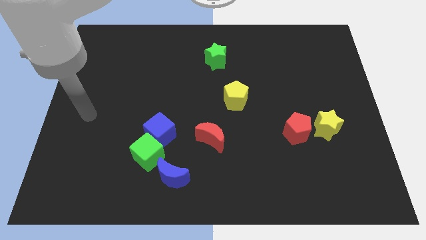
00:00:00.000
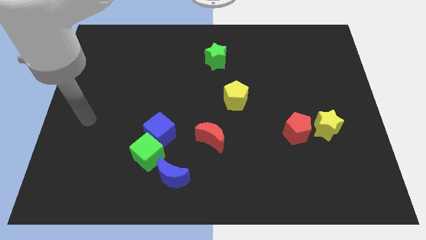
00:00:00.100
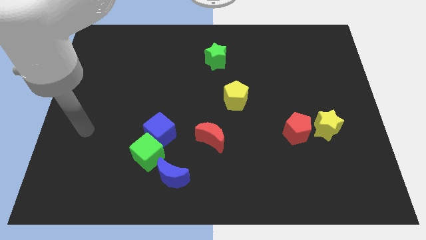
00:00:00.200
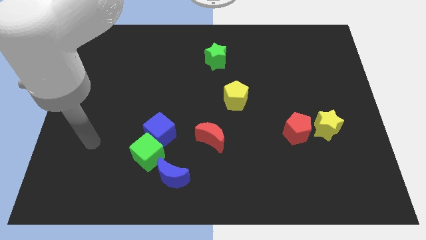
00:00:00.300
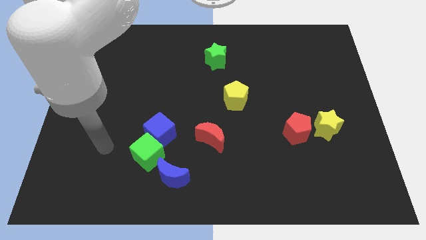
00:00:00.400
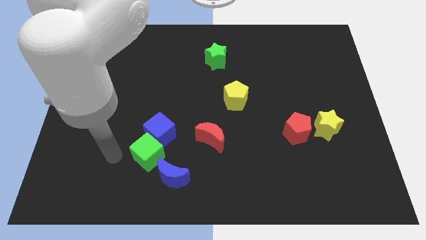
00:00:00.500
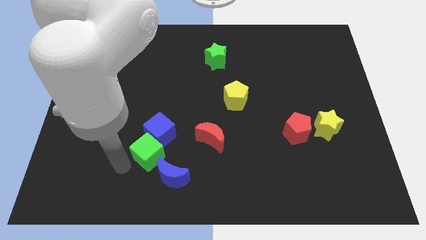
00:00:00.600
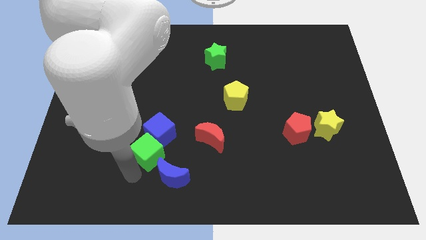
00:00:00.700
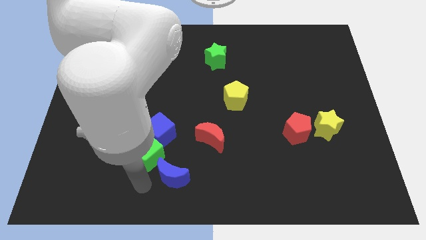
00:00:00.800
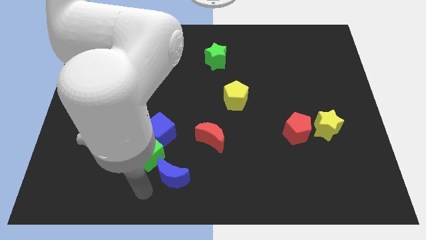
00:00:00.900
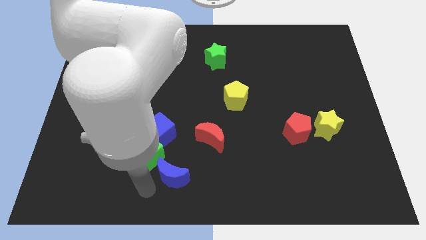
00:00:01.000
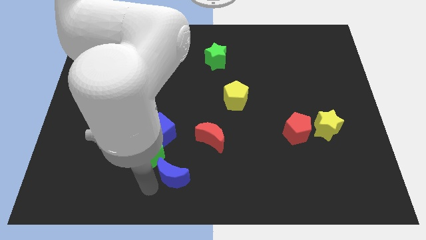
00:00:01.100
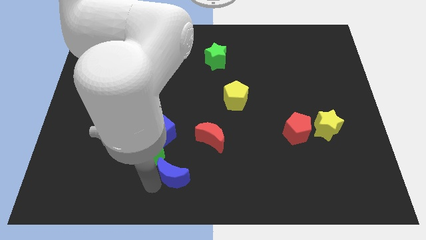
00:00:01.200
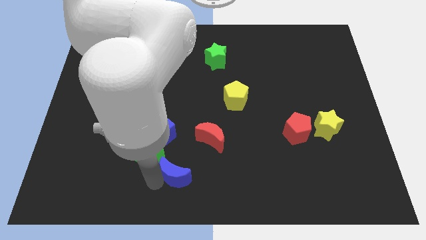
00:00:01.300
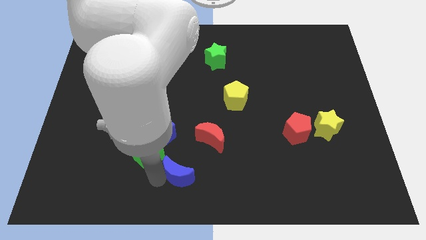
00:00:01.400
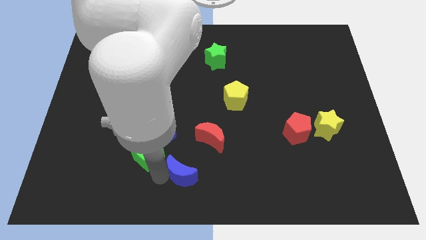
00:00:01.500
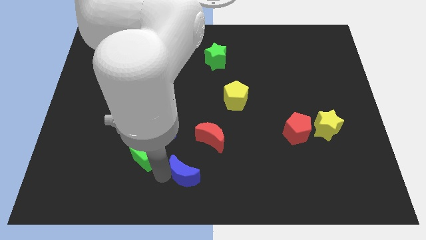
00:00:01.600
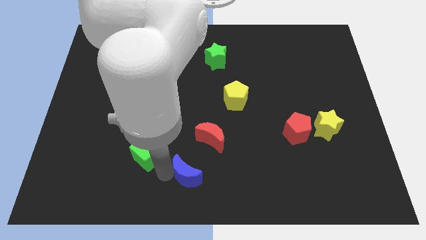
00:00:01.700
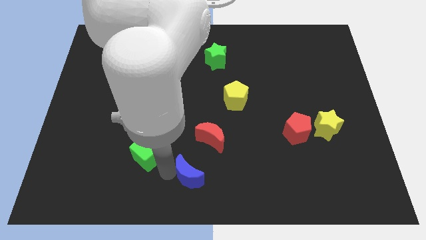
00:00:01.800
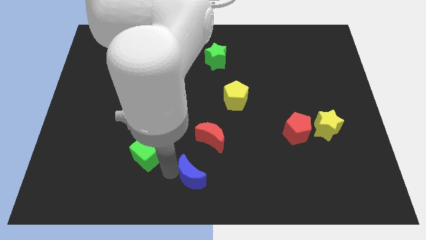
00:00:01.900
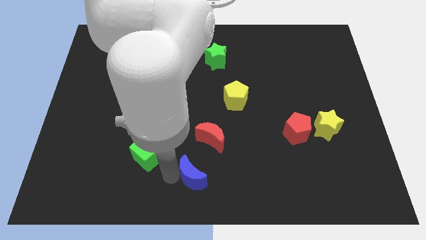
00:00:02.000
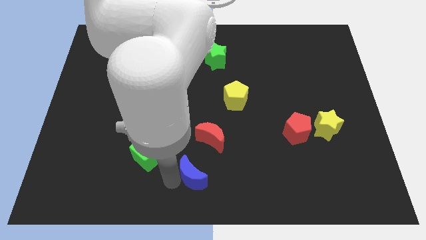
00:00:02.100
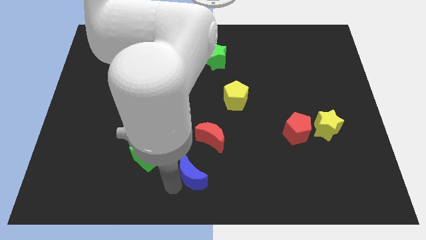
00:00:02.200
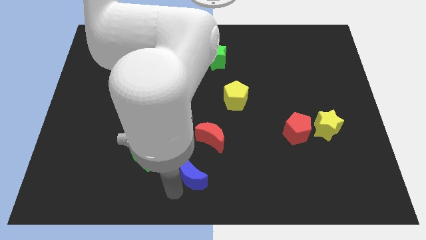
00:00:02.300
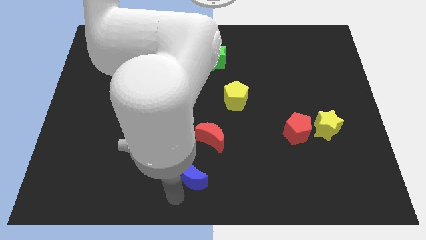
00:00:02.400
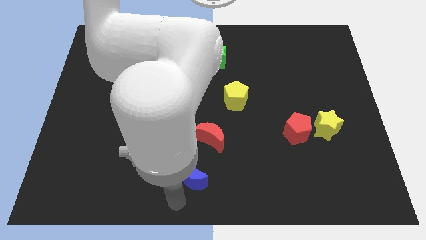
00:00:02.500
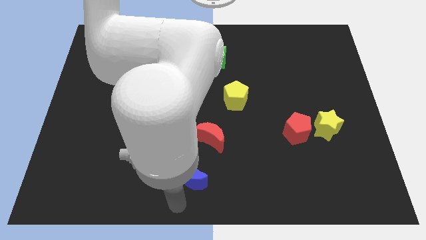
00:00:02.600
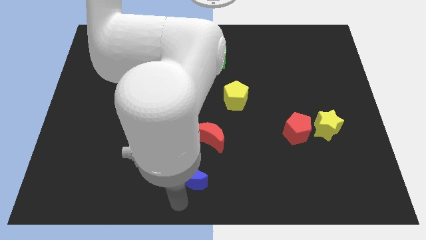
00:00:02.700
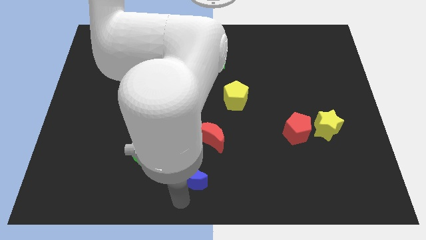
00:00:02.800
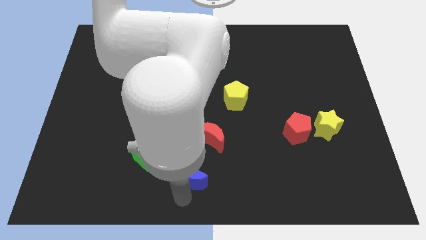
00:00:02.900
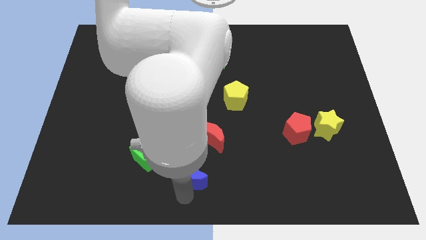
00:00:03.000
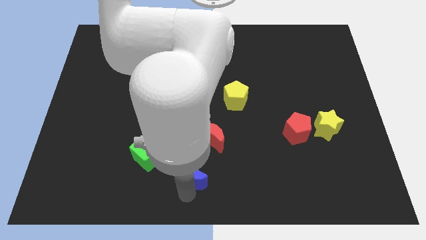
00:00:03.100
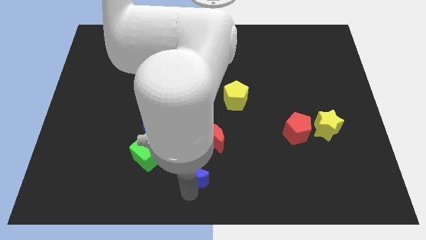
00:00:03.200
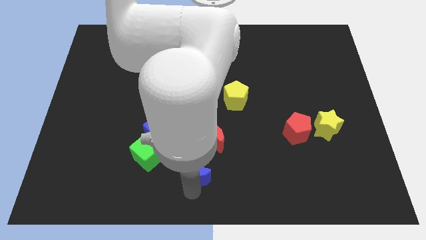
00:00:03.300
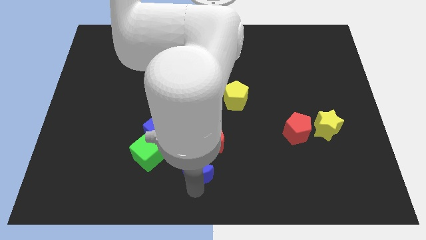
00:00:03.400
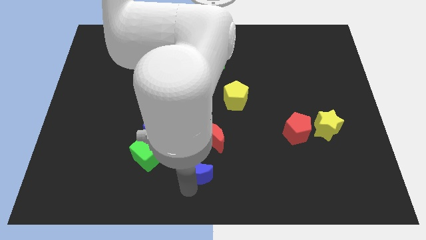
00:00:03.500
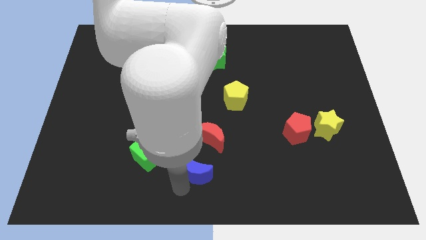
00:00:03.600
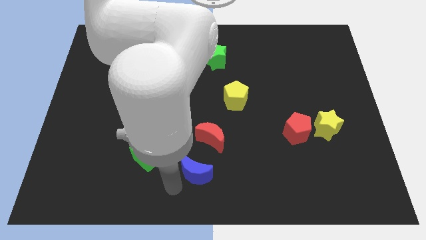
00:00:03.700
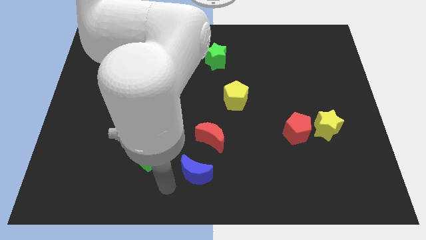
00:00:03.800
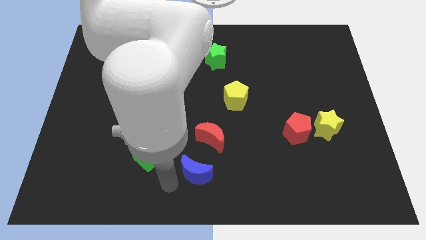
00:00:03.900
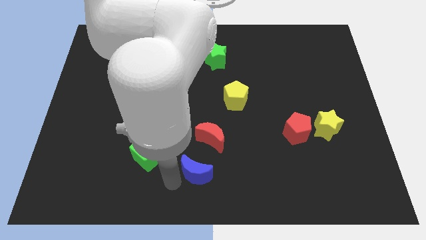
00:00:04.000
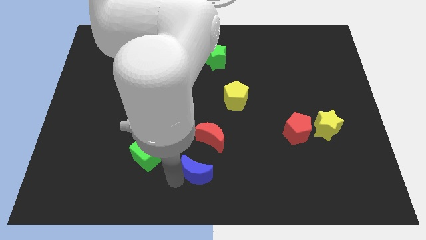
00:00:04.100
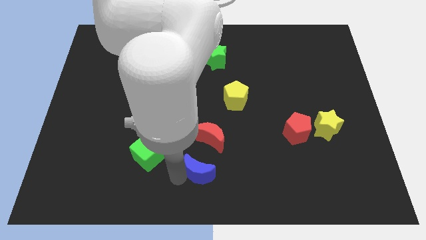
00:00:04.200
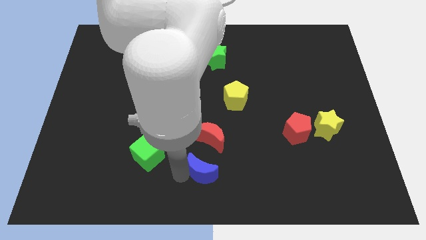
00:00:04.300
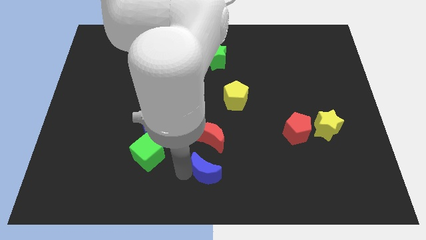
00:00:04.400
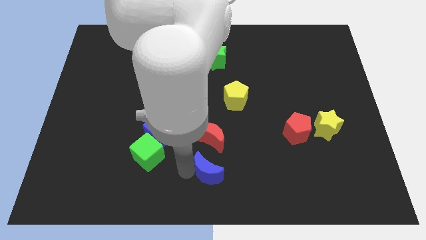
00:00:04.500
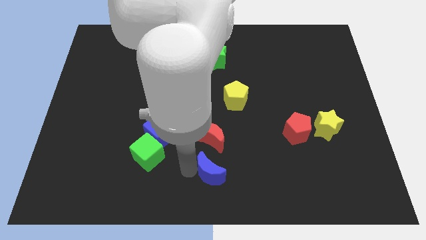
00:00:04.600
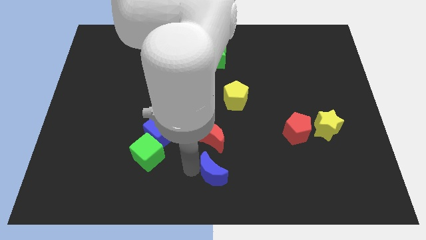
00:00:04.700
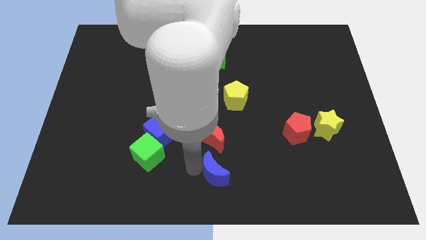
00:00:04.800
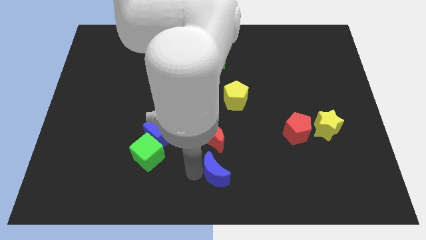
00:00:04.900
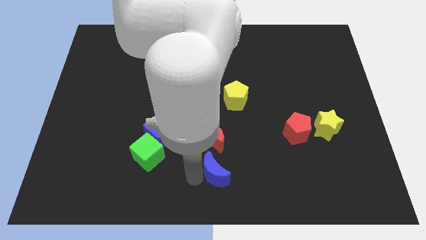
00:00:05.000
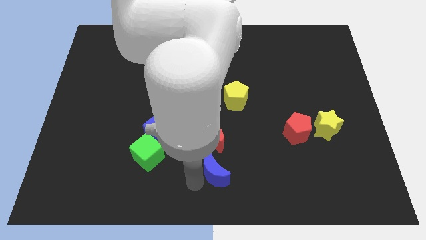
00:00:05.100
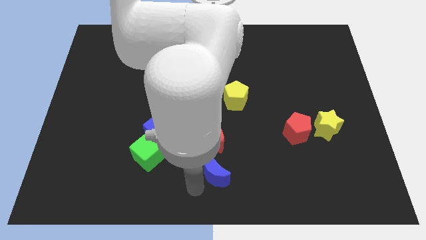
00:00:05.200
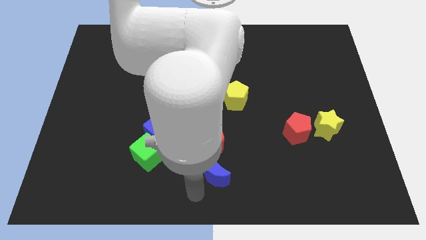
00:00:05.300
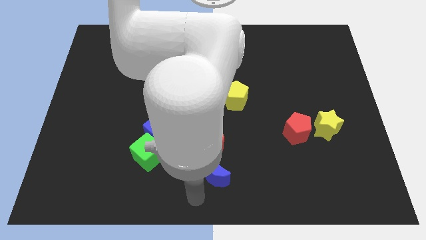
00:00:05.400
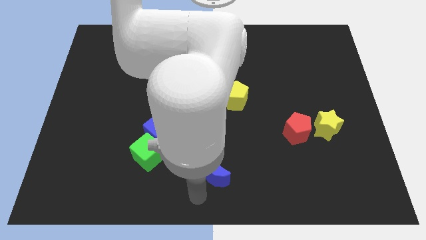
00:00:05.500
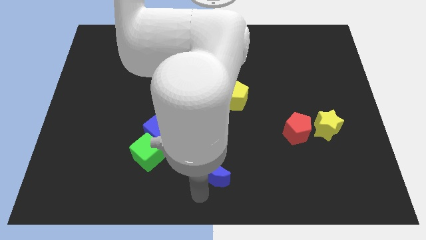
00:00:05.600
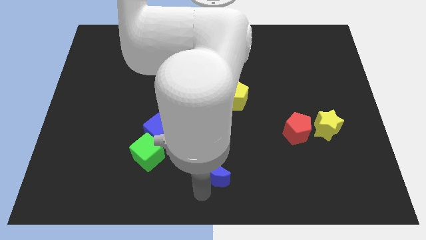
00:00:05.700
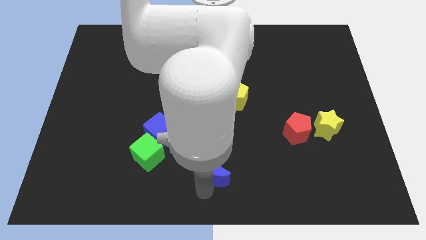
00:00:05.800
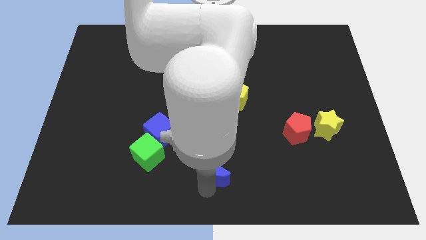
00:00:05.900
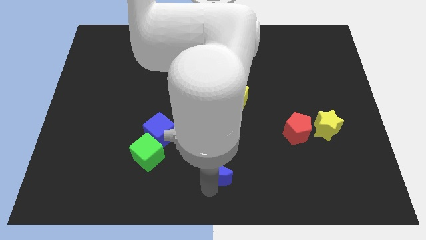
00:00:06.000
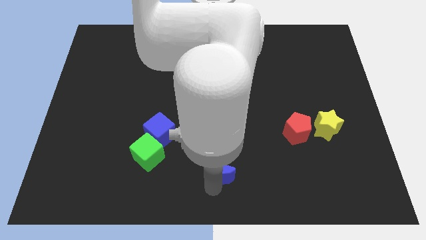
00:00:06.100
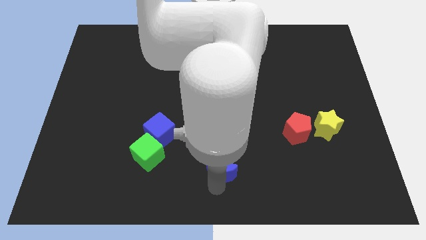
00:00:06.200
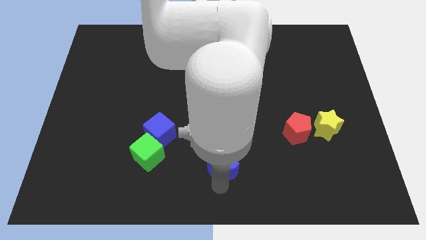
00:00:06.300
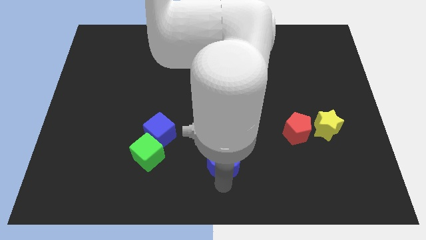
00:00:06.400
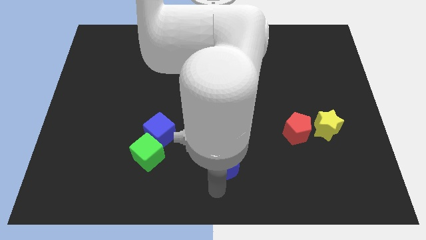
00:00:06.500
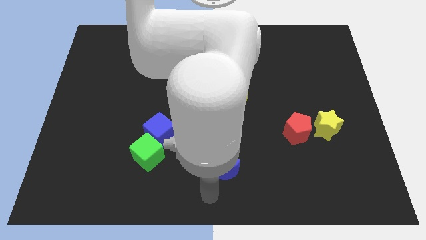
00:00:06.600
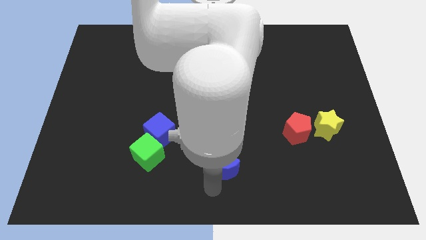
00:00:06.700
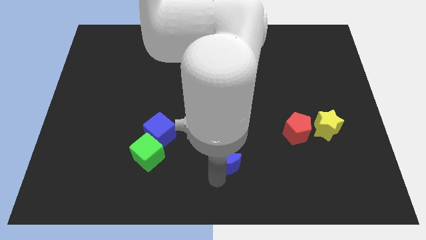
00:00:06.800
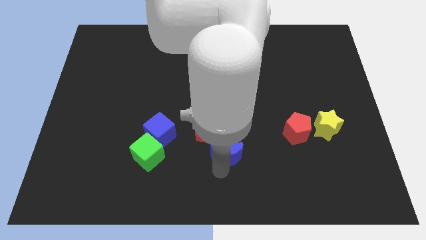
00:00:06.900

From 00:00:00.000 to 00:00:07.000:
put the blue moon to the bottom side of the yellow pentagon
